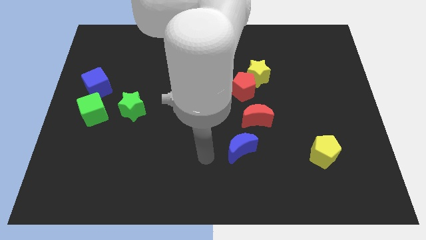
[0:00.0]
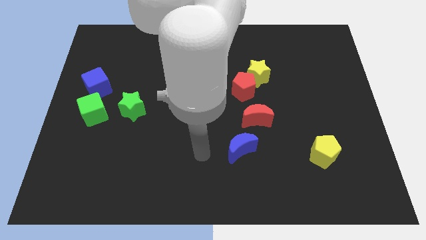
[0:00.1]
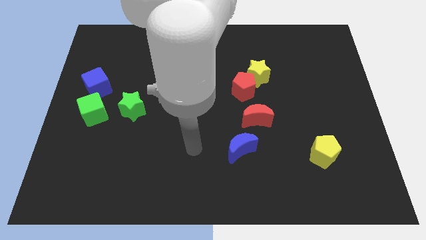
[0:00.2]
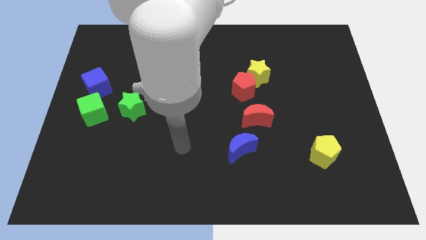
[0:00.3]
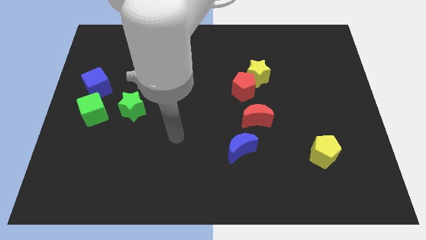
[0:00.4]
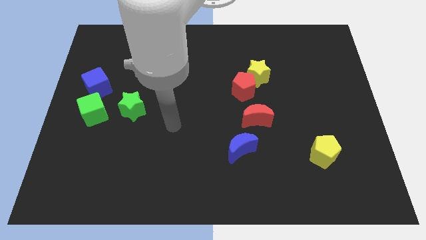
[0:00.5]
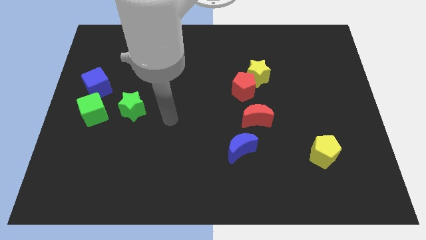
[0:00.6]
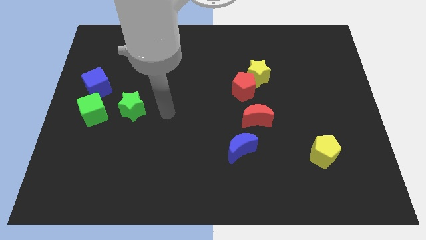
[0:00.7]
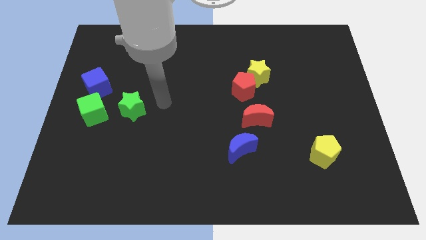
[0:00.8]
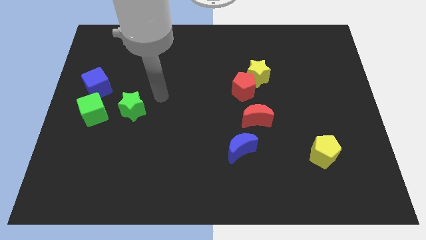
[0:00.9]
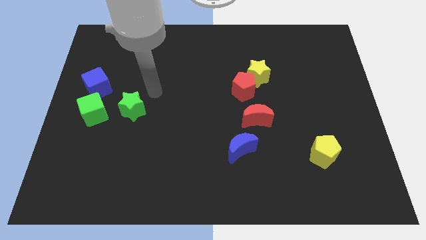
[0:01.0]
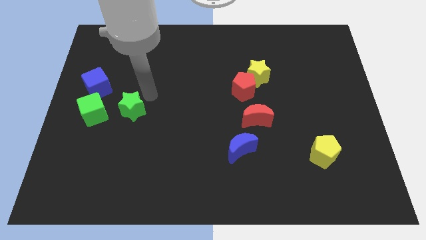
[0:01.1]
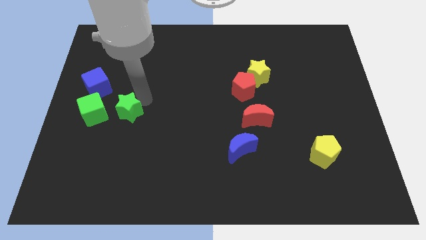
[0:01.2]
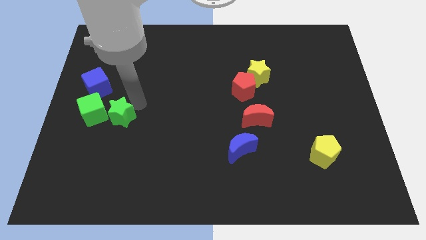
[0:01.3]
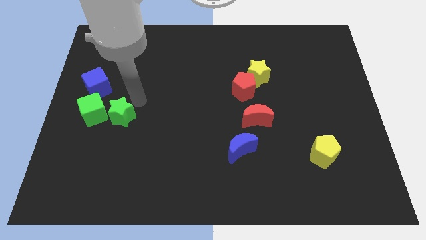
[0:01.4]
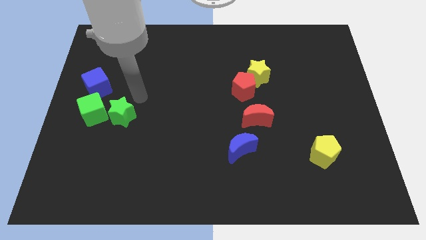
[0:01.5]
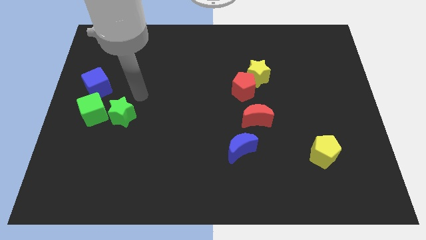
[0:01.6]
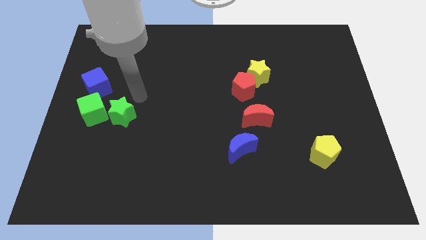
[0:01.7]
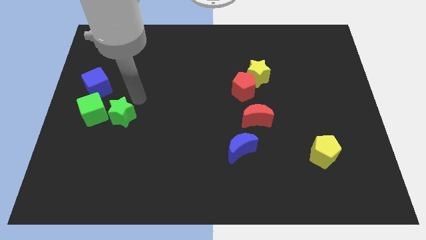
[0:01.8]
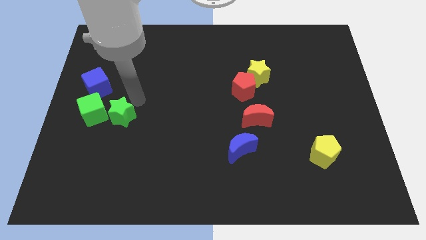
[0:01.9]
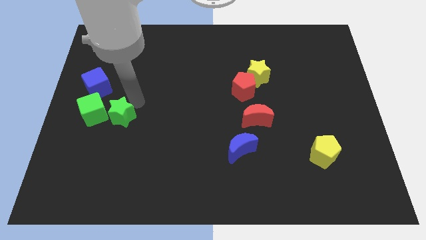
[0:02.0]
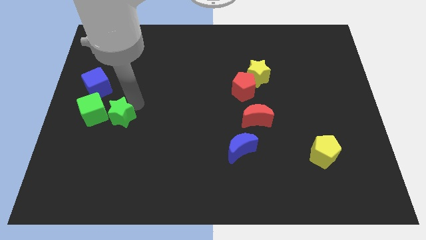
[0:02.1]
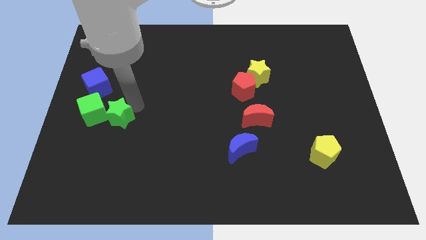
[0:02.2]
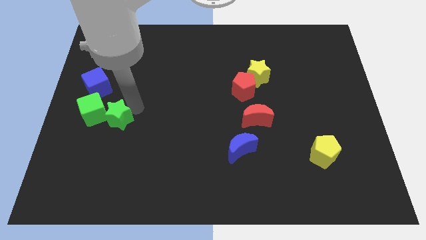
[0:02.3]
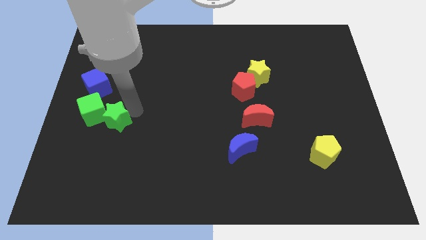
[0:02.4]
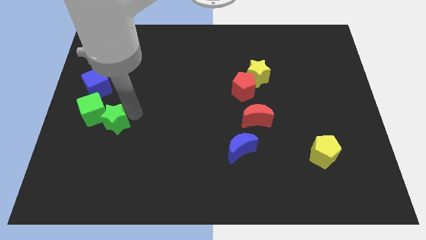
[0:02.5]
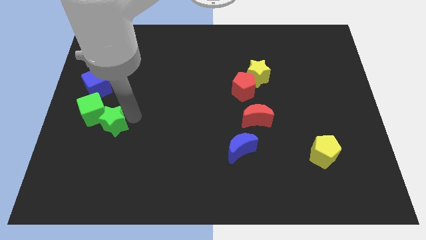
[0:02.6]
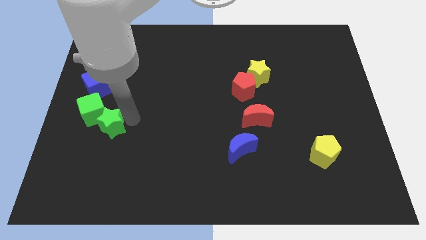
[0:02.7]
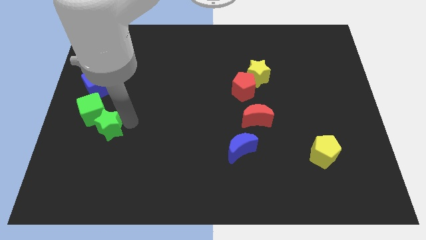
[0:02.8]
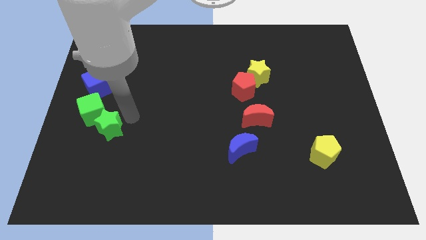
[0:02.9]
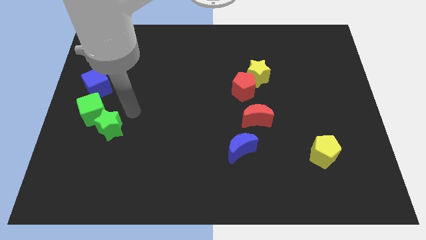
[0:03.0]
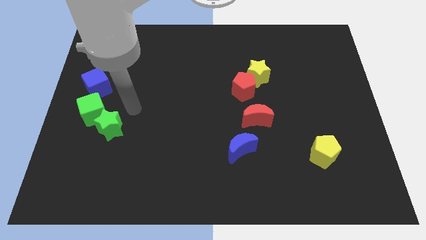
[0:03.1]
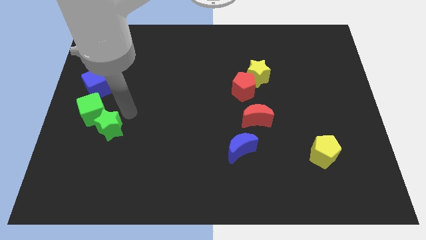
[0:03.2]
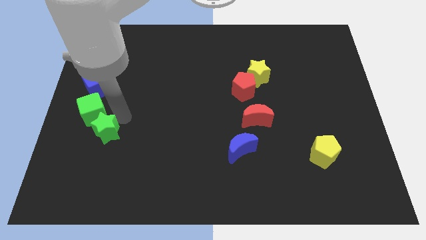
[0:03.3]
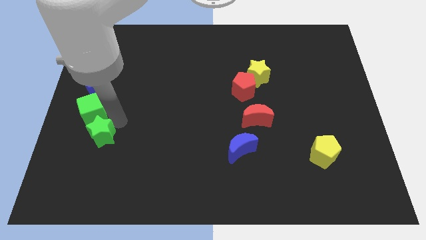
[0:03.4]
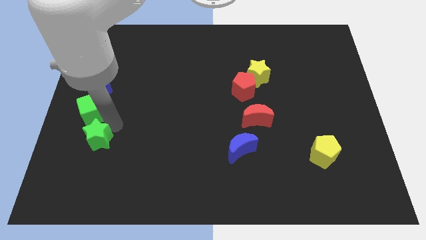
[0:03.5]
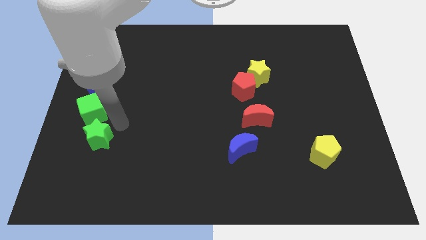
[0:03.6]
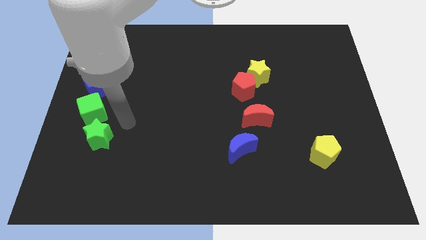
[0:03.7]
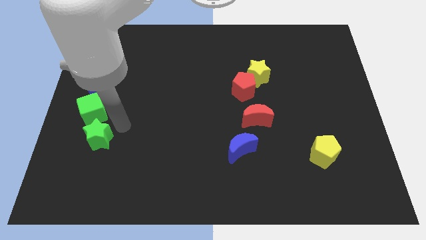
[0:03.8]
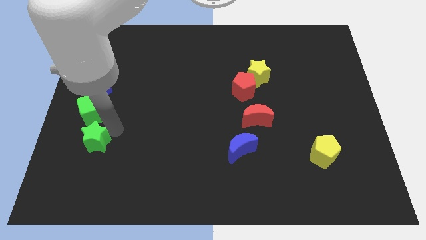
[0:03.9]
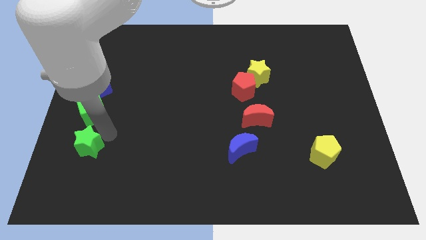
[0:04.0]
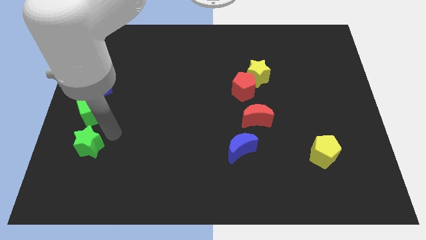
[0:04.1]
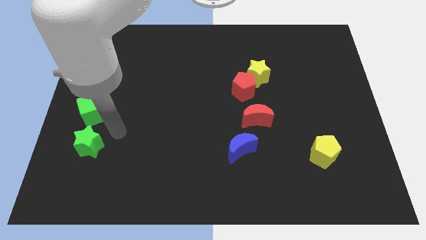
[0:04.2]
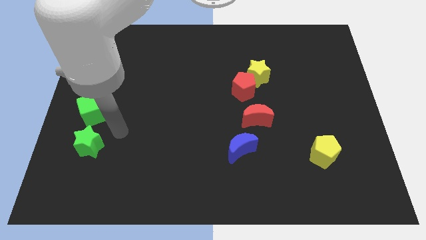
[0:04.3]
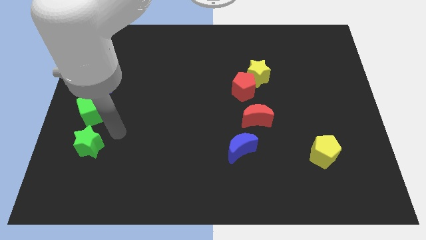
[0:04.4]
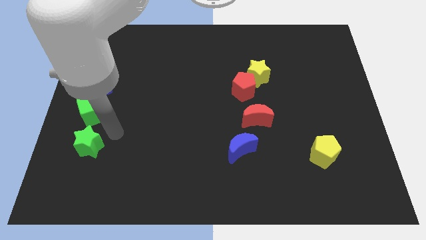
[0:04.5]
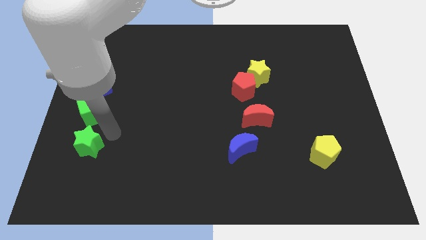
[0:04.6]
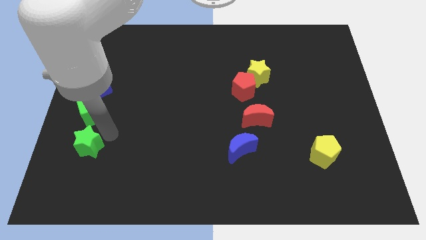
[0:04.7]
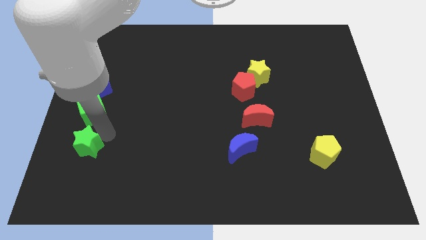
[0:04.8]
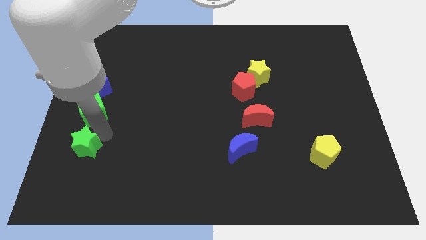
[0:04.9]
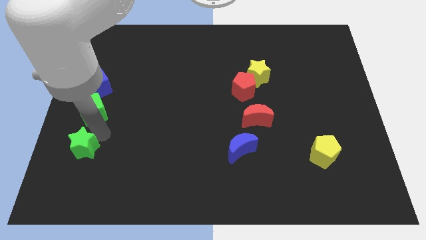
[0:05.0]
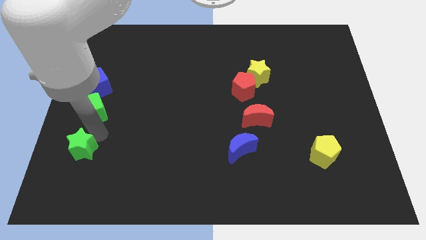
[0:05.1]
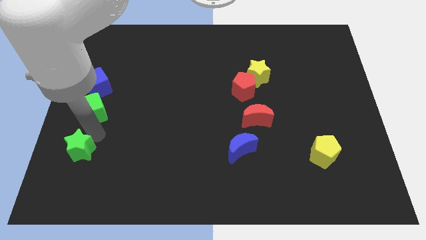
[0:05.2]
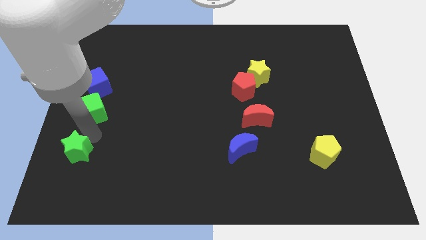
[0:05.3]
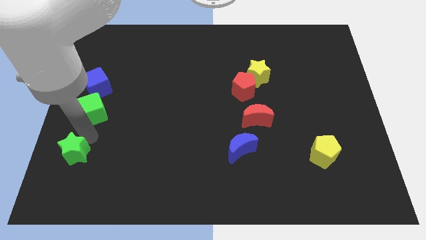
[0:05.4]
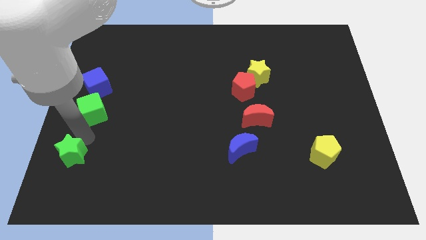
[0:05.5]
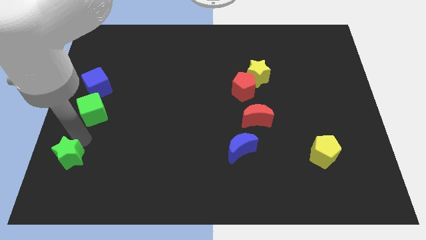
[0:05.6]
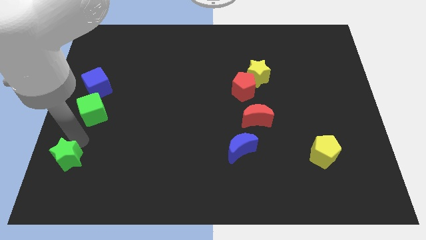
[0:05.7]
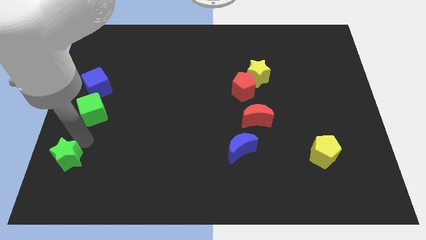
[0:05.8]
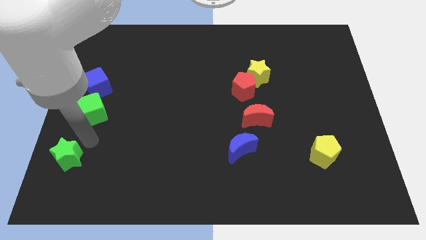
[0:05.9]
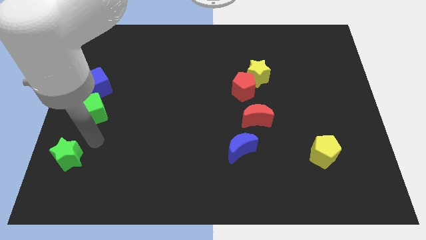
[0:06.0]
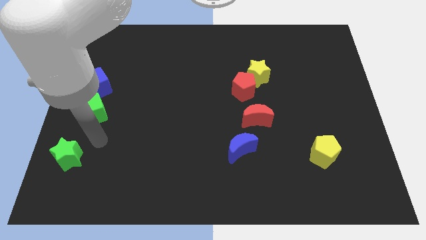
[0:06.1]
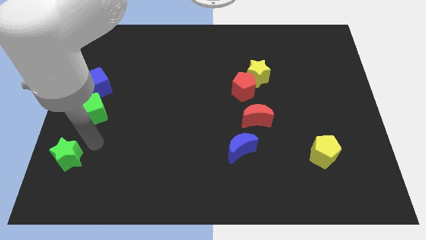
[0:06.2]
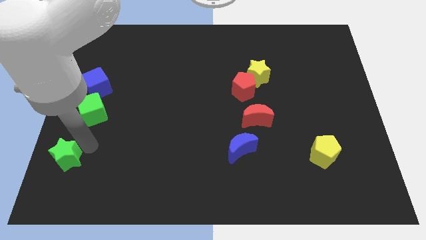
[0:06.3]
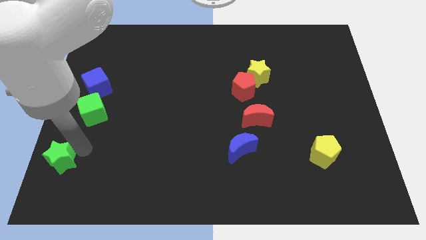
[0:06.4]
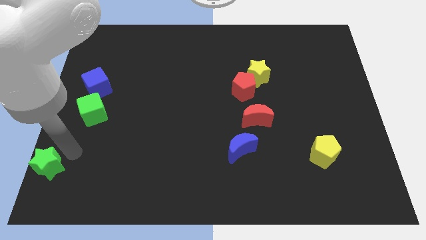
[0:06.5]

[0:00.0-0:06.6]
put the green star to the bottom left corner
